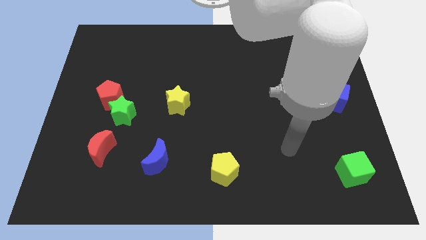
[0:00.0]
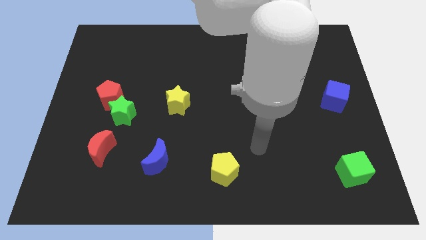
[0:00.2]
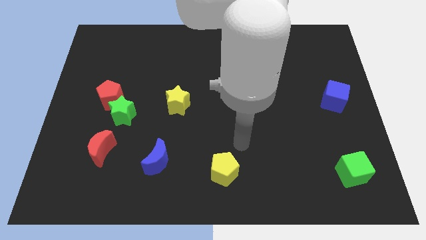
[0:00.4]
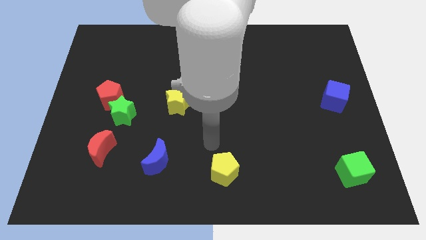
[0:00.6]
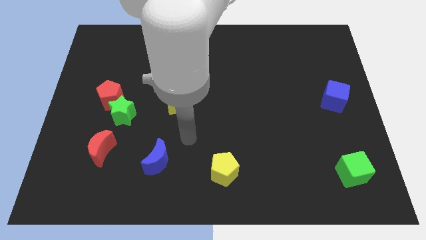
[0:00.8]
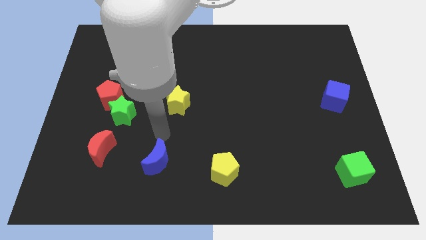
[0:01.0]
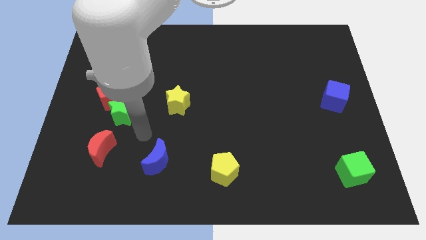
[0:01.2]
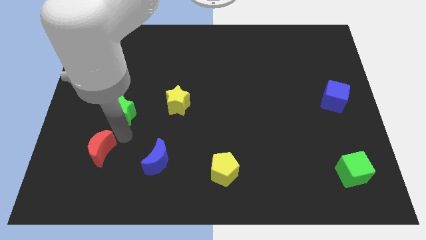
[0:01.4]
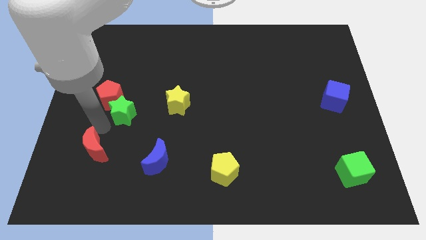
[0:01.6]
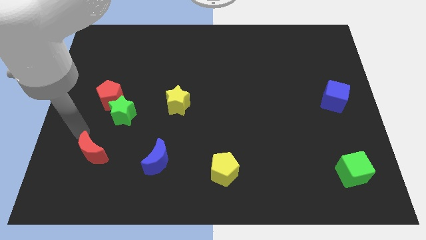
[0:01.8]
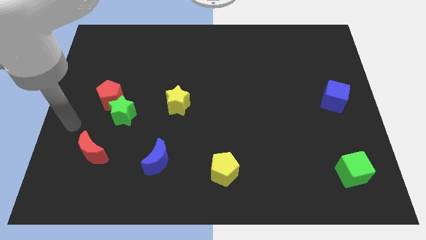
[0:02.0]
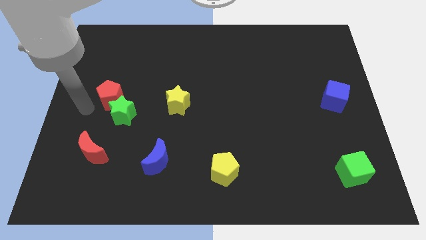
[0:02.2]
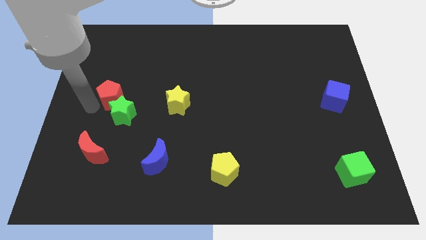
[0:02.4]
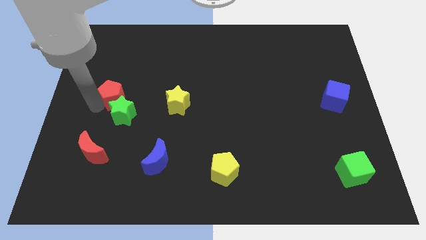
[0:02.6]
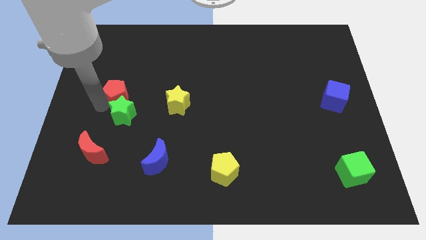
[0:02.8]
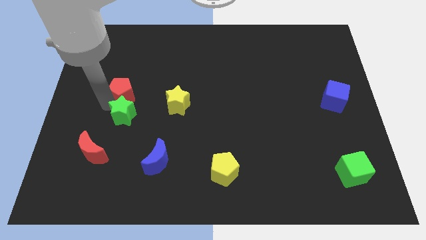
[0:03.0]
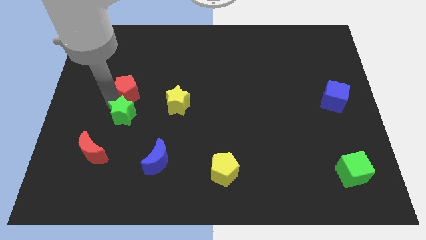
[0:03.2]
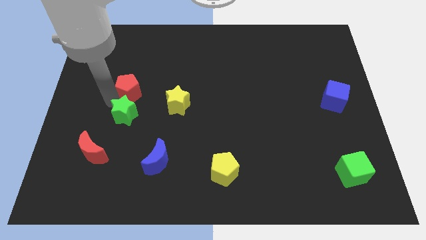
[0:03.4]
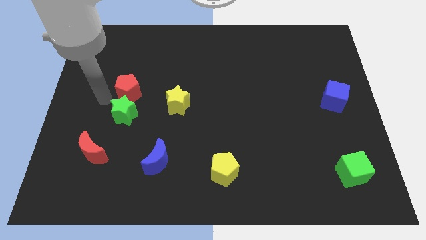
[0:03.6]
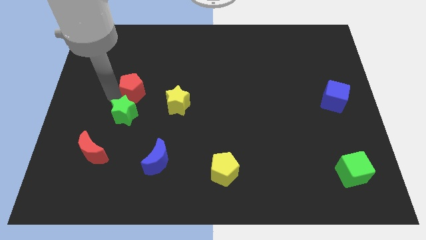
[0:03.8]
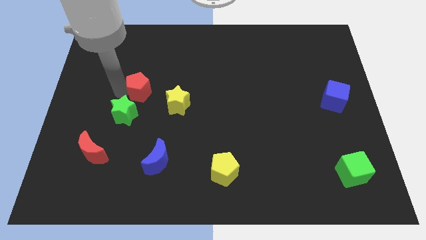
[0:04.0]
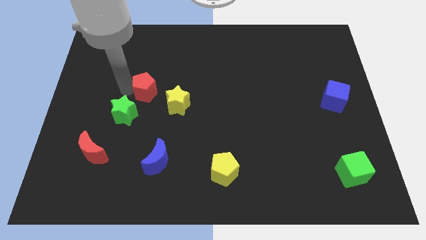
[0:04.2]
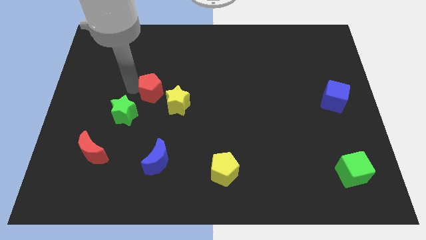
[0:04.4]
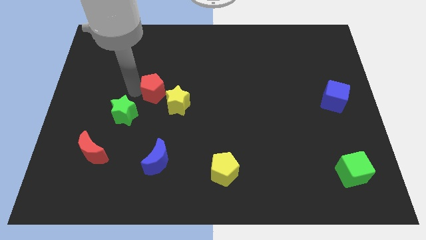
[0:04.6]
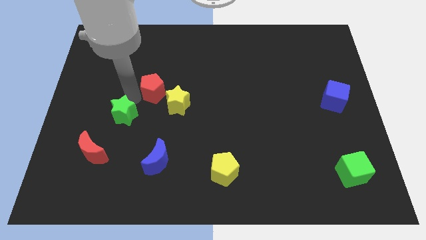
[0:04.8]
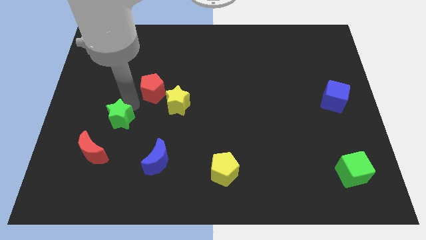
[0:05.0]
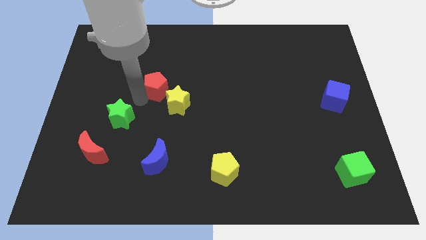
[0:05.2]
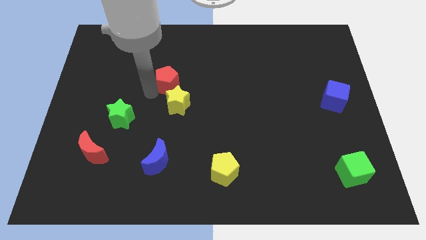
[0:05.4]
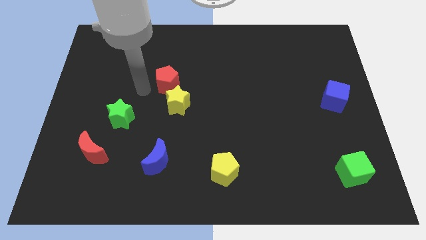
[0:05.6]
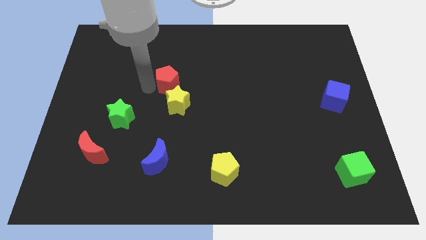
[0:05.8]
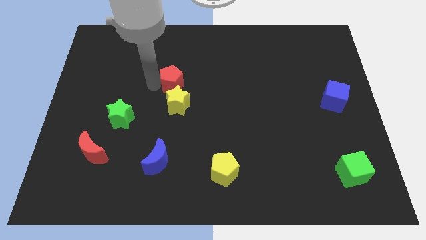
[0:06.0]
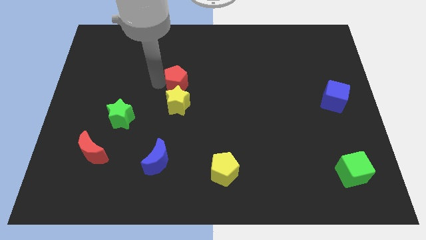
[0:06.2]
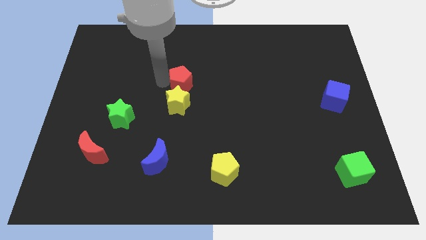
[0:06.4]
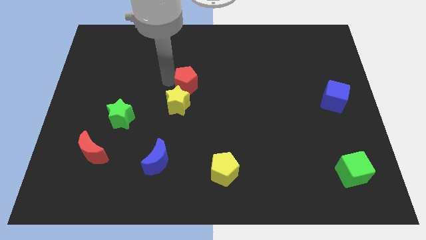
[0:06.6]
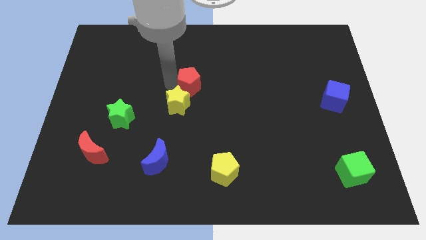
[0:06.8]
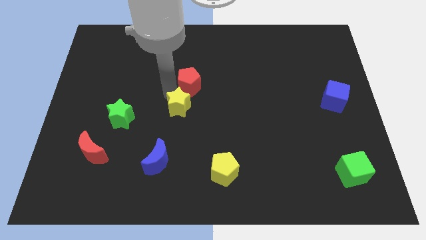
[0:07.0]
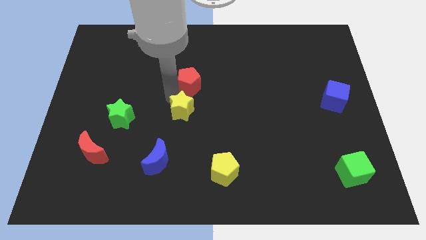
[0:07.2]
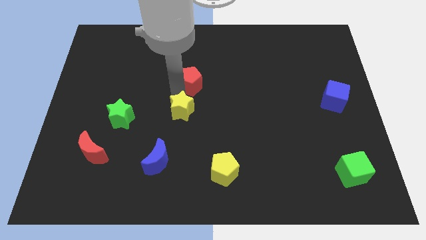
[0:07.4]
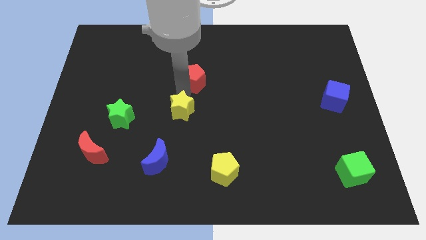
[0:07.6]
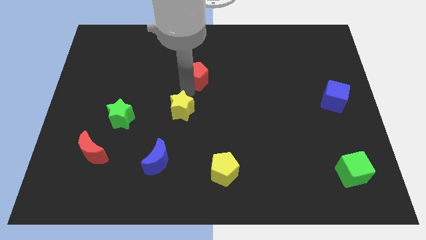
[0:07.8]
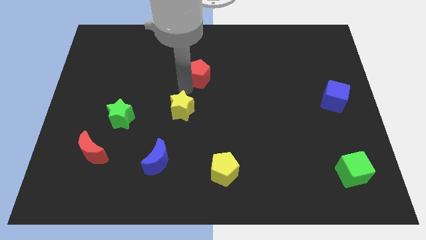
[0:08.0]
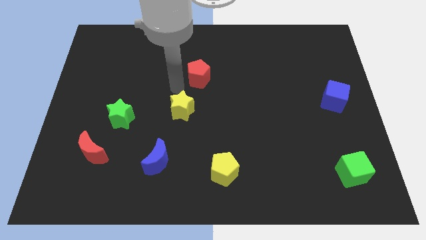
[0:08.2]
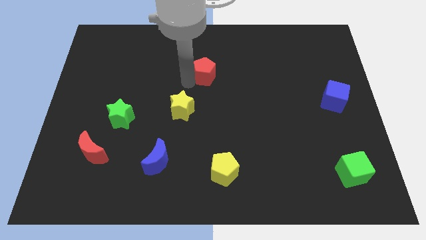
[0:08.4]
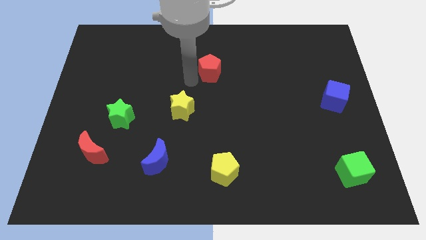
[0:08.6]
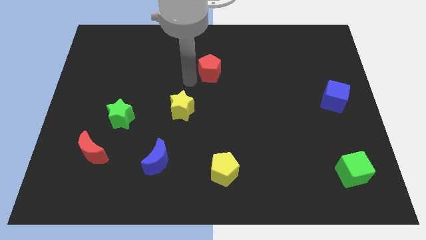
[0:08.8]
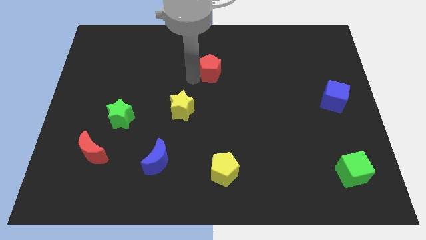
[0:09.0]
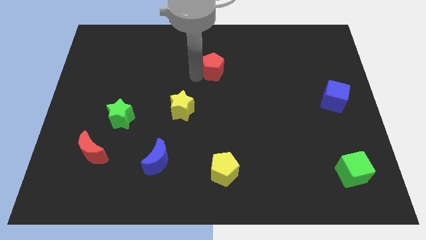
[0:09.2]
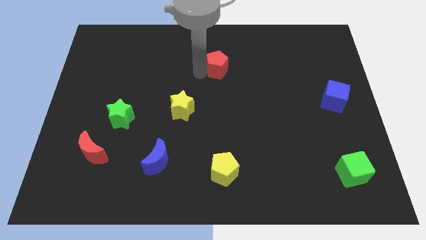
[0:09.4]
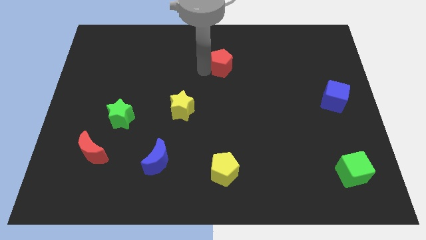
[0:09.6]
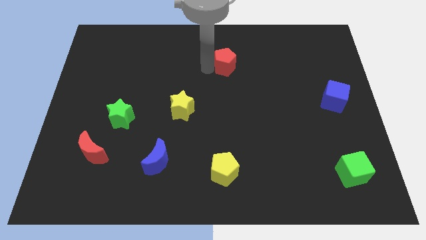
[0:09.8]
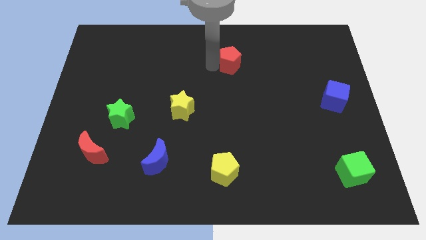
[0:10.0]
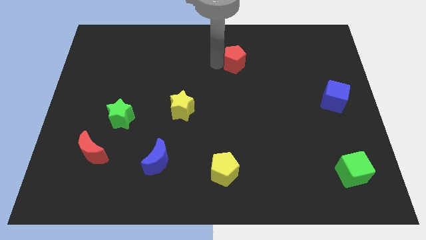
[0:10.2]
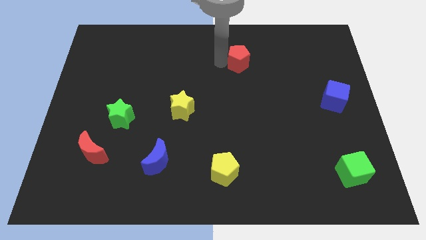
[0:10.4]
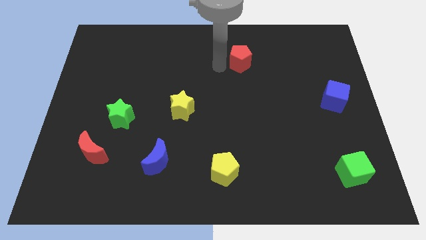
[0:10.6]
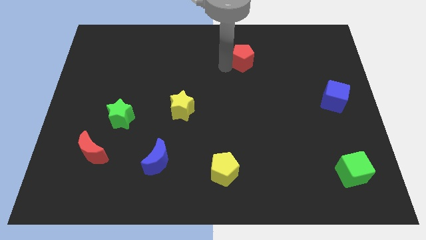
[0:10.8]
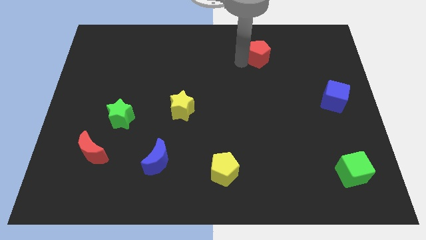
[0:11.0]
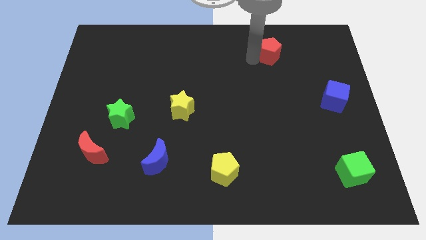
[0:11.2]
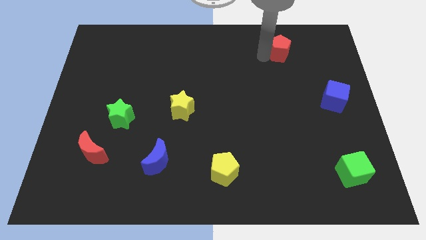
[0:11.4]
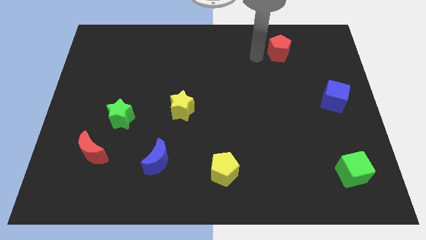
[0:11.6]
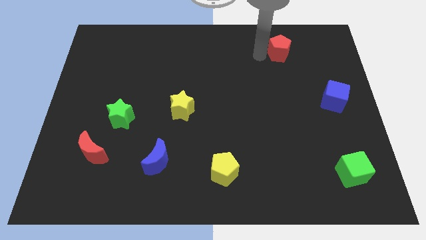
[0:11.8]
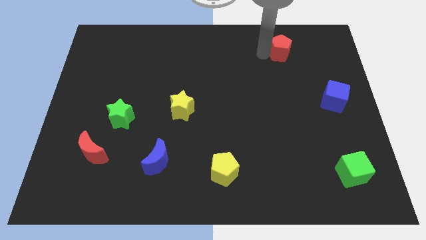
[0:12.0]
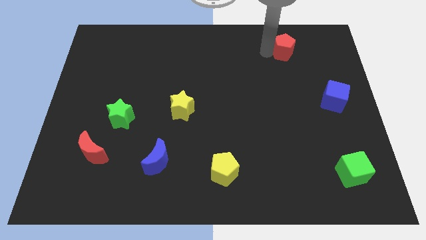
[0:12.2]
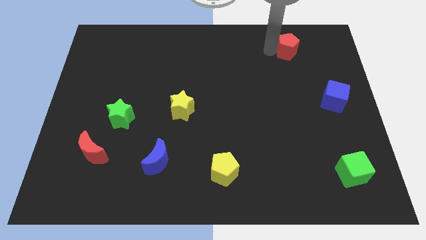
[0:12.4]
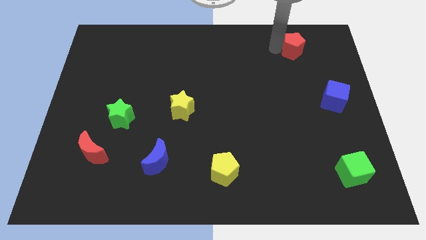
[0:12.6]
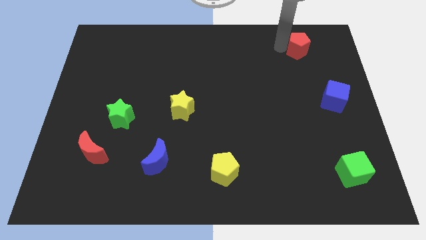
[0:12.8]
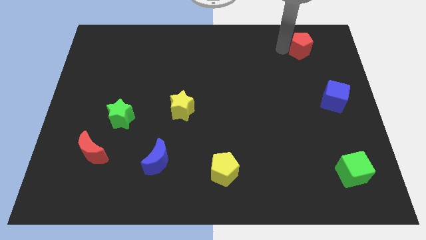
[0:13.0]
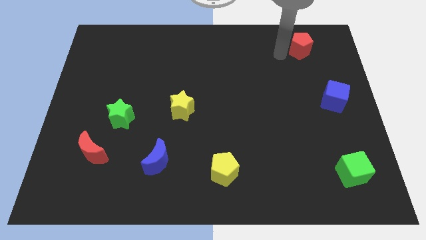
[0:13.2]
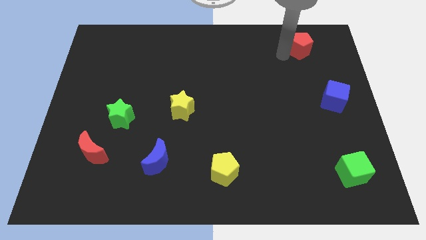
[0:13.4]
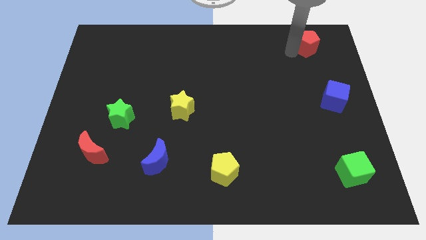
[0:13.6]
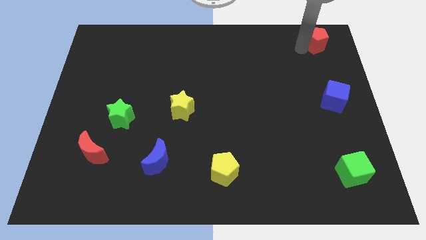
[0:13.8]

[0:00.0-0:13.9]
slide the red pentagon to the top right

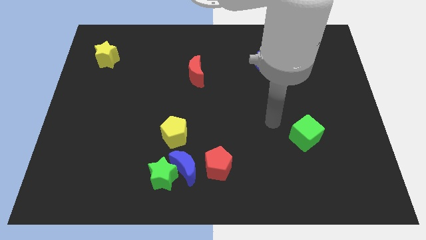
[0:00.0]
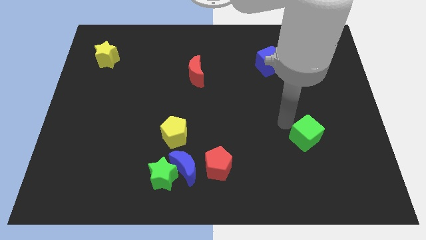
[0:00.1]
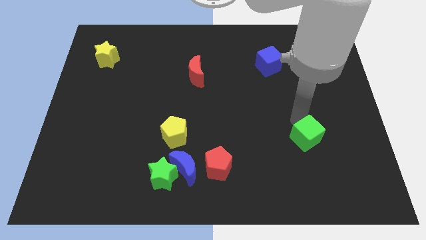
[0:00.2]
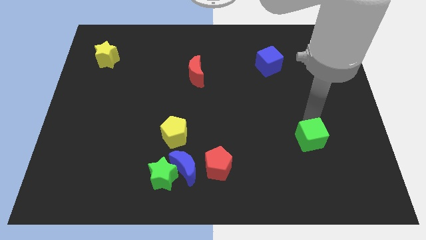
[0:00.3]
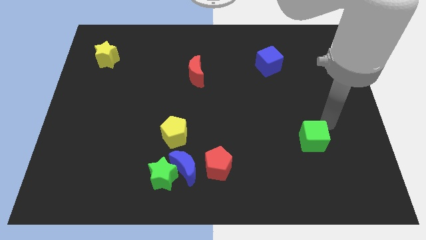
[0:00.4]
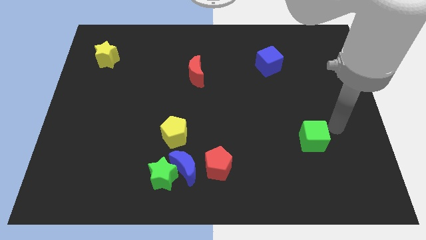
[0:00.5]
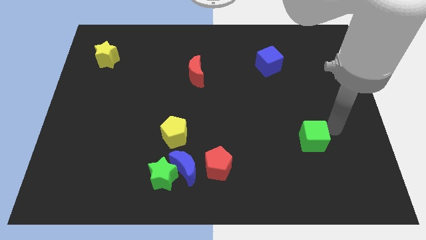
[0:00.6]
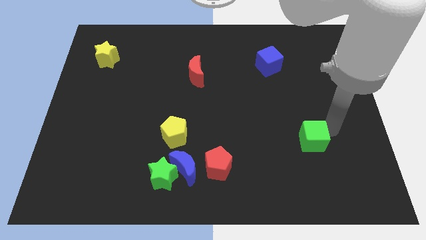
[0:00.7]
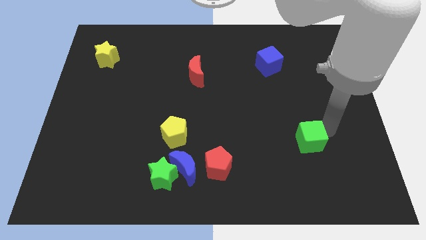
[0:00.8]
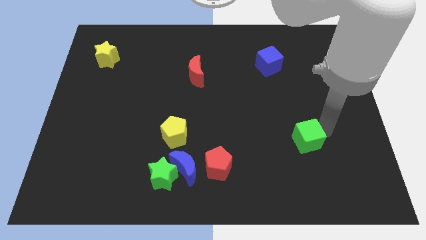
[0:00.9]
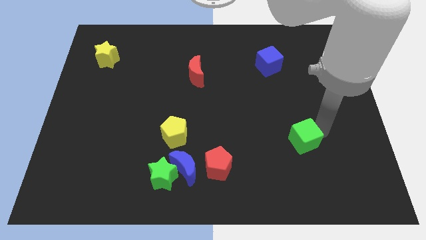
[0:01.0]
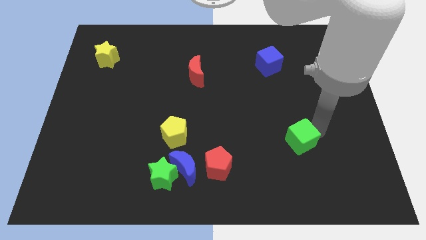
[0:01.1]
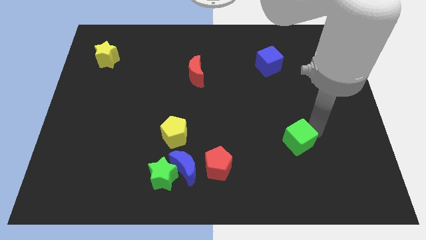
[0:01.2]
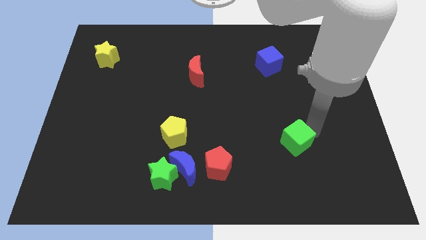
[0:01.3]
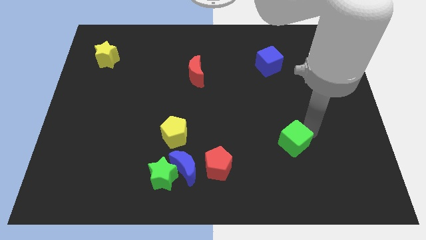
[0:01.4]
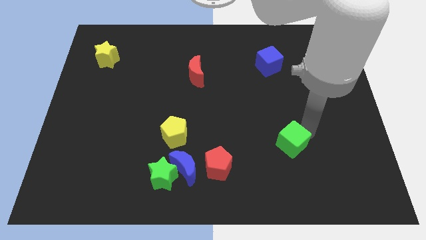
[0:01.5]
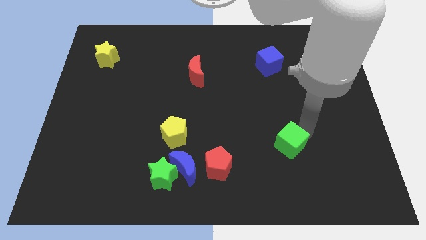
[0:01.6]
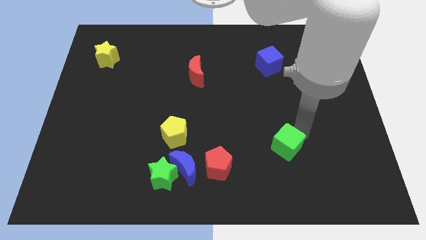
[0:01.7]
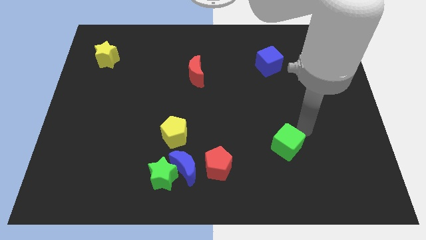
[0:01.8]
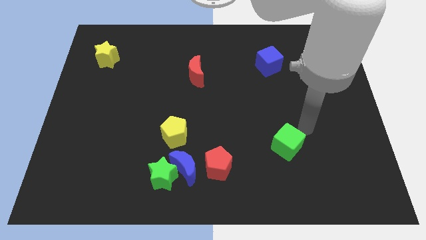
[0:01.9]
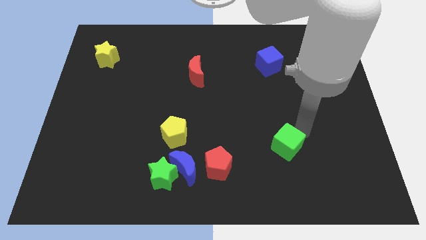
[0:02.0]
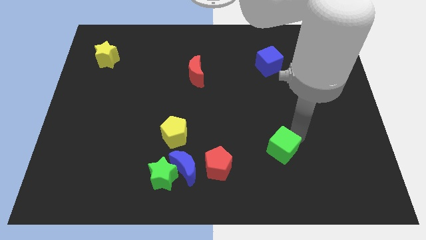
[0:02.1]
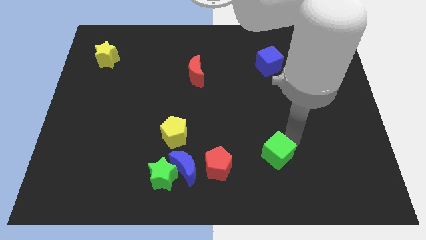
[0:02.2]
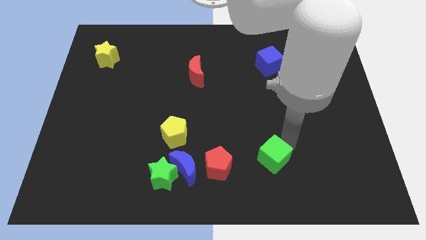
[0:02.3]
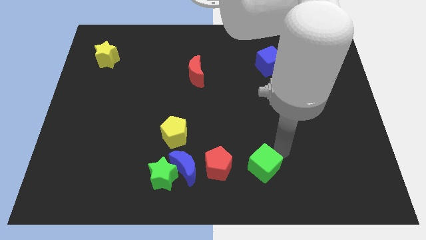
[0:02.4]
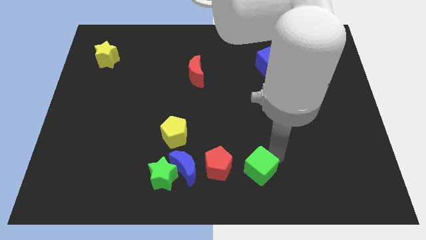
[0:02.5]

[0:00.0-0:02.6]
push the green cube to the bottom side
